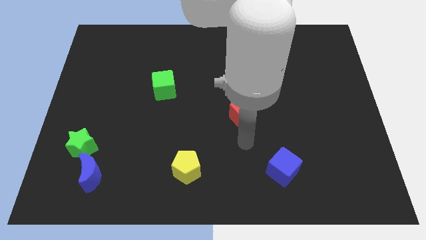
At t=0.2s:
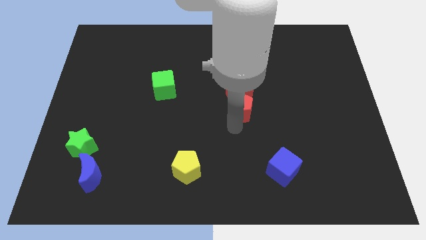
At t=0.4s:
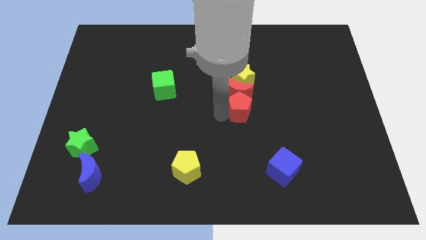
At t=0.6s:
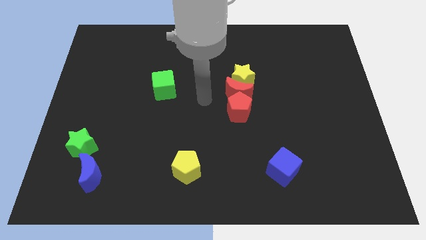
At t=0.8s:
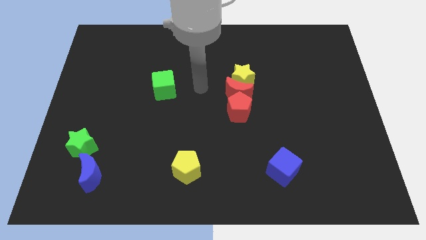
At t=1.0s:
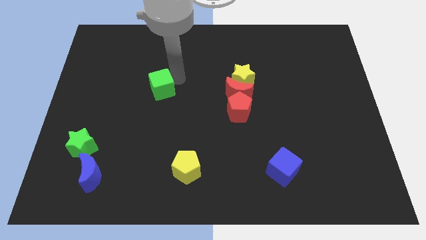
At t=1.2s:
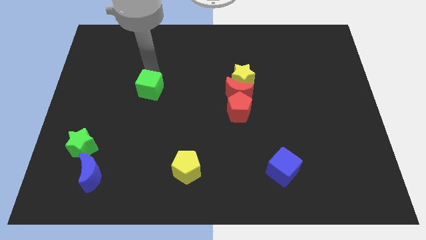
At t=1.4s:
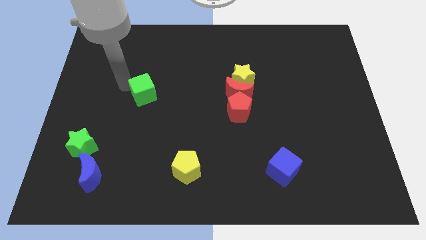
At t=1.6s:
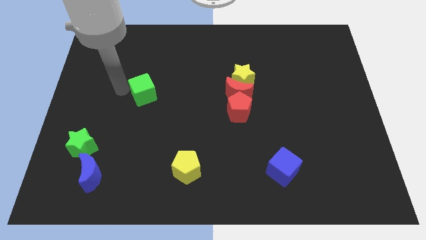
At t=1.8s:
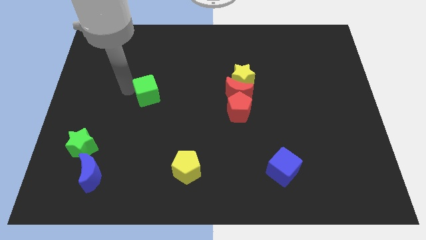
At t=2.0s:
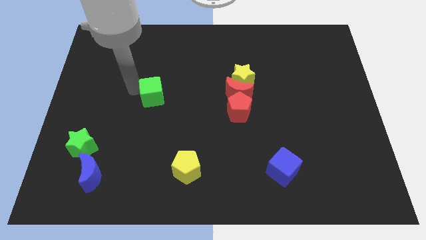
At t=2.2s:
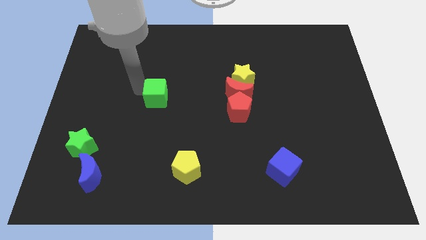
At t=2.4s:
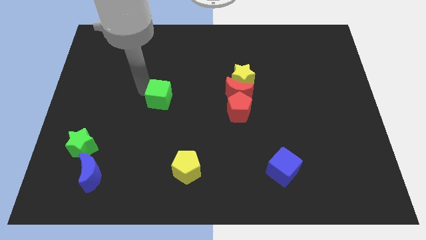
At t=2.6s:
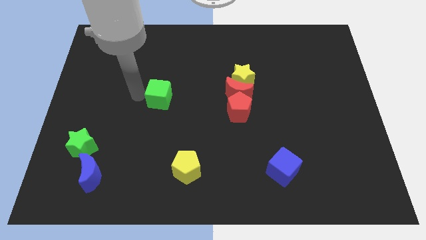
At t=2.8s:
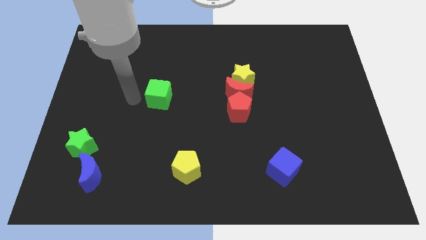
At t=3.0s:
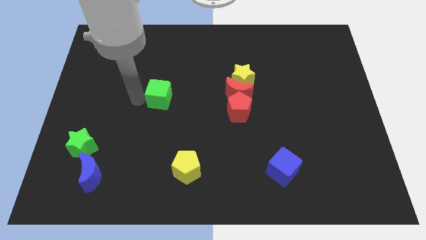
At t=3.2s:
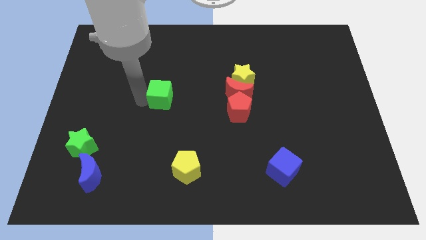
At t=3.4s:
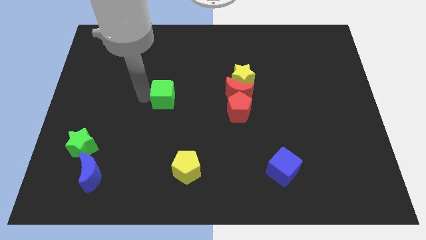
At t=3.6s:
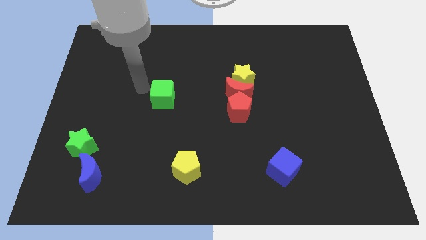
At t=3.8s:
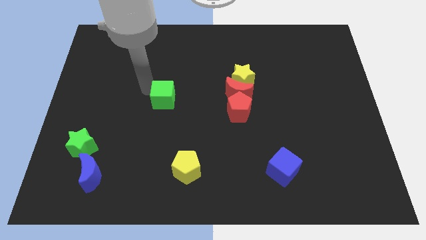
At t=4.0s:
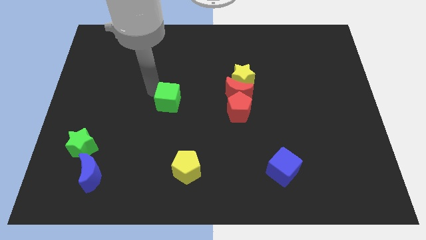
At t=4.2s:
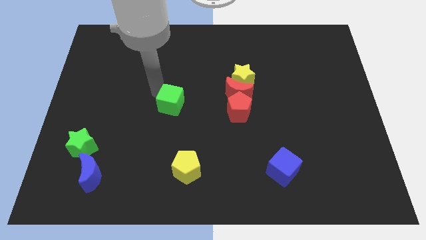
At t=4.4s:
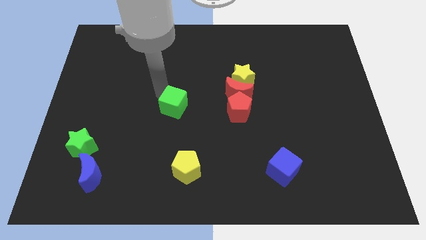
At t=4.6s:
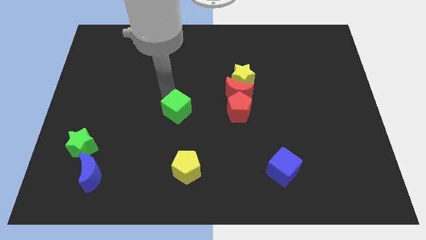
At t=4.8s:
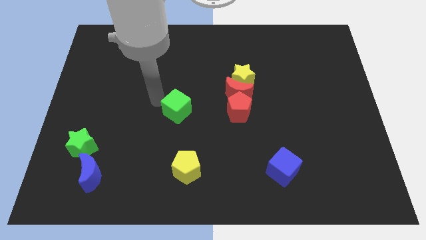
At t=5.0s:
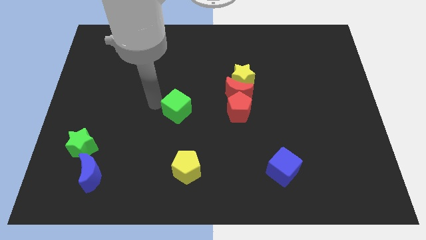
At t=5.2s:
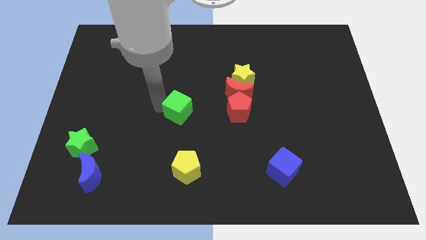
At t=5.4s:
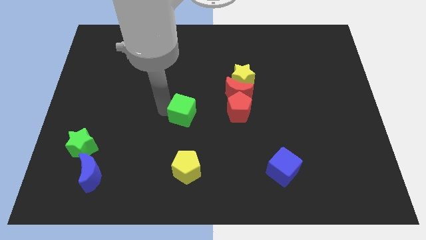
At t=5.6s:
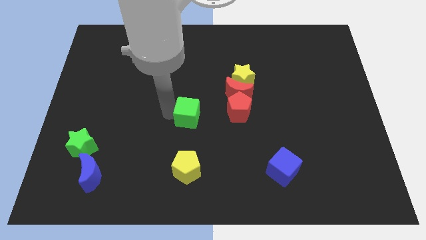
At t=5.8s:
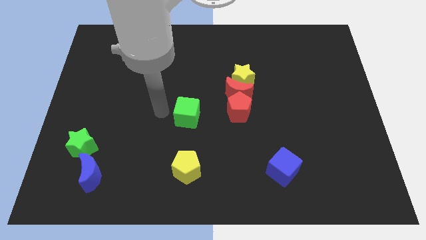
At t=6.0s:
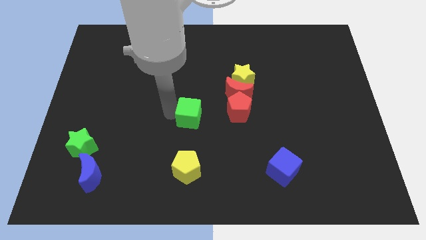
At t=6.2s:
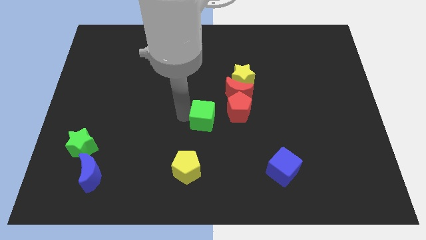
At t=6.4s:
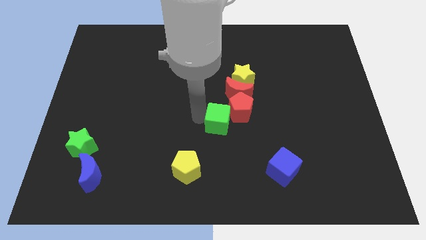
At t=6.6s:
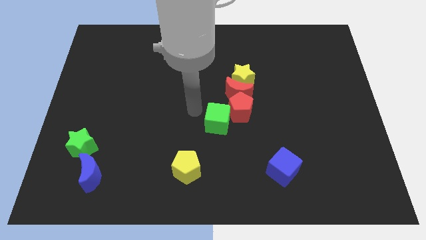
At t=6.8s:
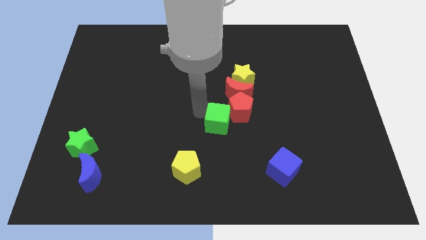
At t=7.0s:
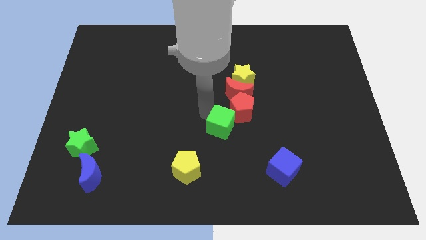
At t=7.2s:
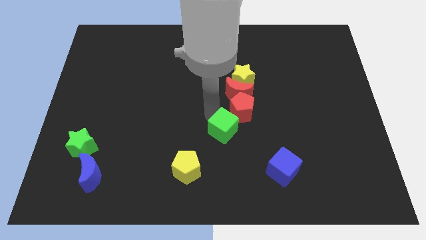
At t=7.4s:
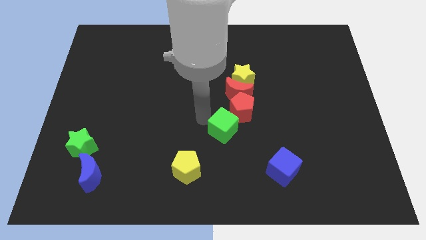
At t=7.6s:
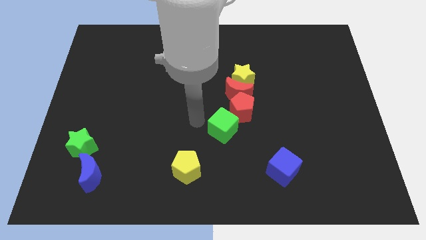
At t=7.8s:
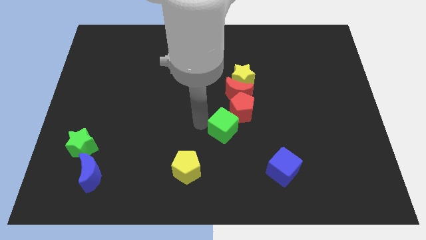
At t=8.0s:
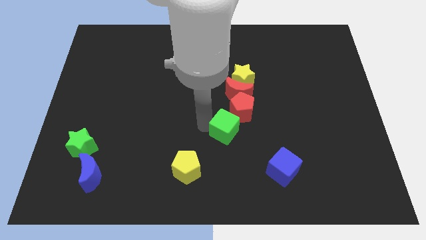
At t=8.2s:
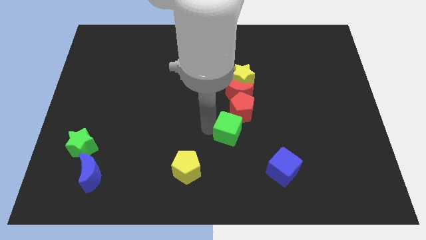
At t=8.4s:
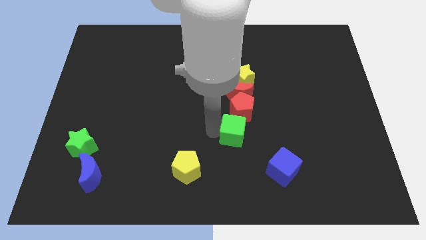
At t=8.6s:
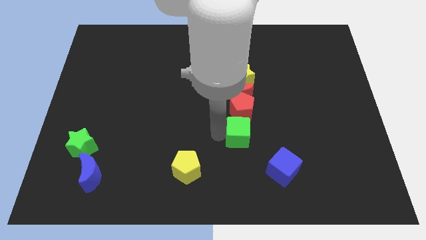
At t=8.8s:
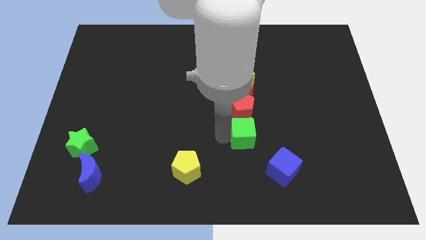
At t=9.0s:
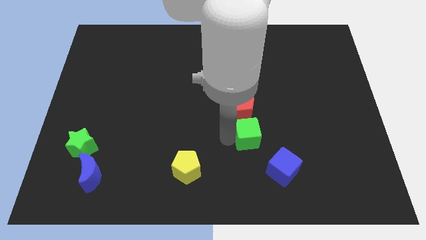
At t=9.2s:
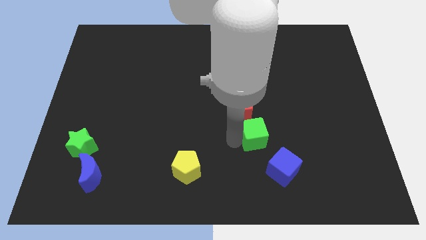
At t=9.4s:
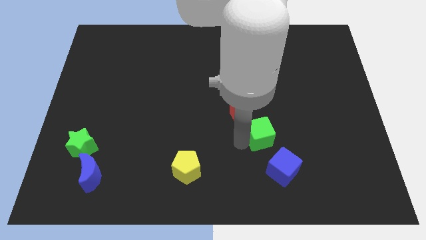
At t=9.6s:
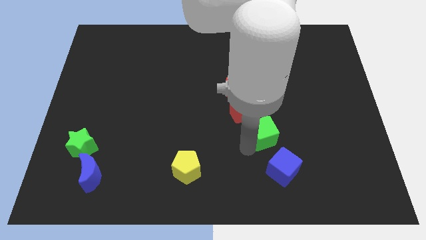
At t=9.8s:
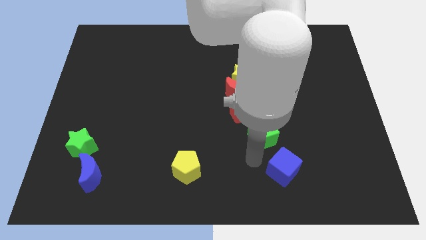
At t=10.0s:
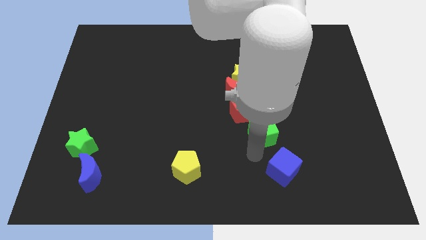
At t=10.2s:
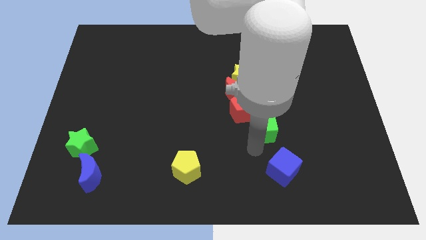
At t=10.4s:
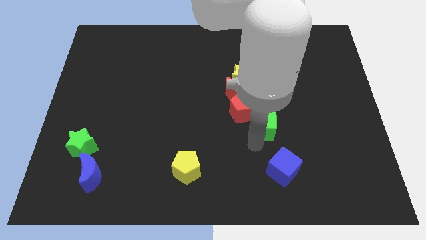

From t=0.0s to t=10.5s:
put the green cube just right of the red pentagon

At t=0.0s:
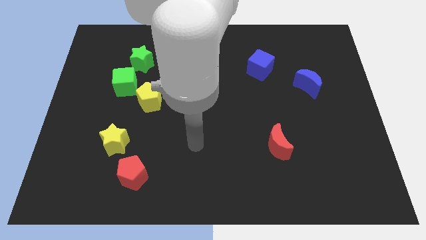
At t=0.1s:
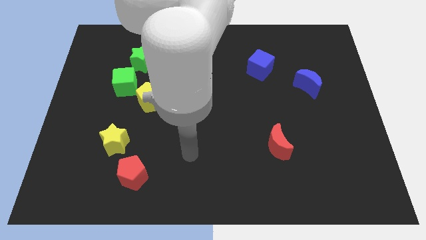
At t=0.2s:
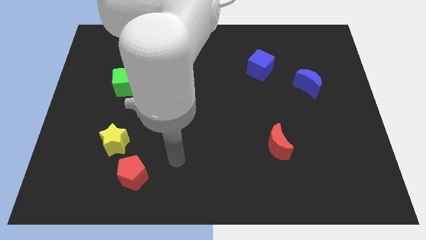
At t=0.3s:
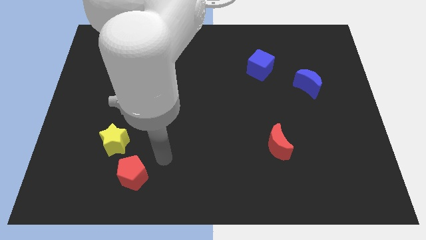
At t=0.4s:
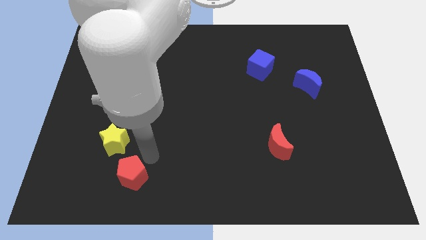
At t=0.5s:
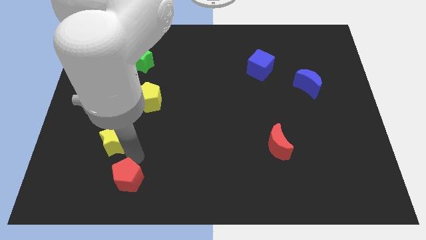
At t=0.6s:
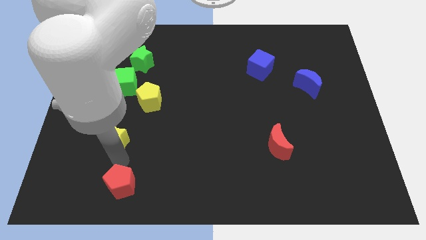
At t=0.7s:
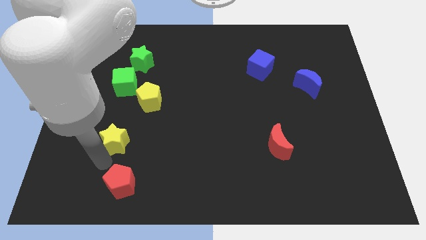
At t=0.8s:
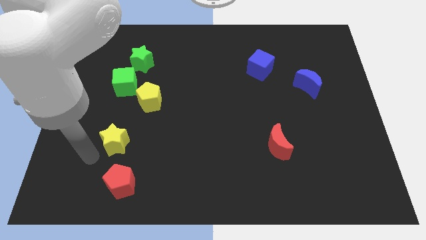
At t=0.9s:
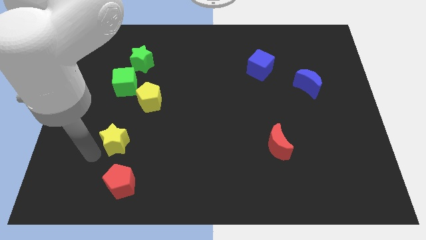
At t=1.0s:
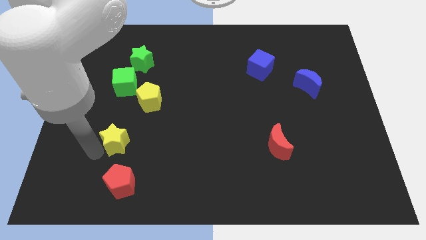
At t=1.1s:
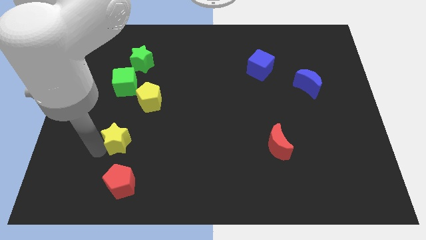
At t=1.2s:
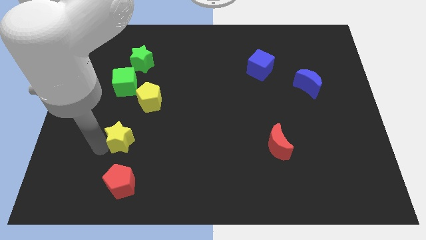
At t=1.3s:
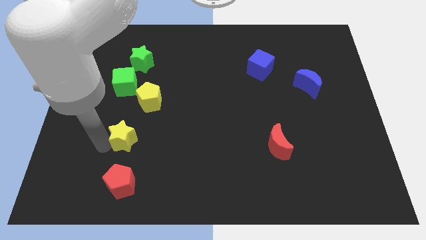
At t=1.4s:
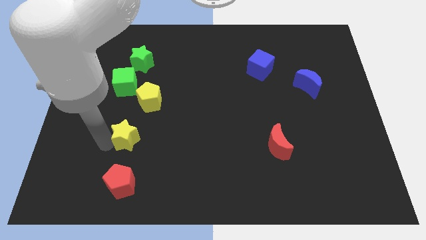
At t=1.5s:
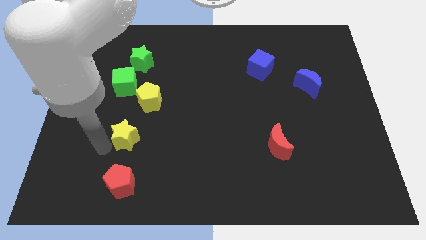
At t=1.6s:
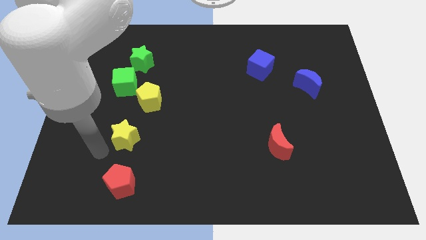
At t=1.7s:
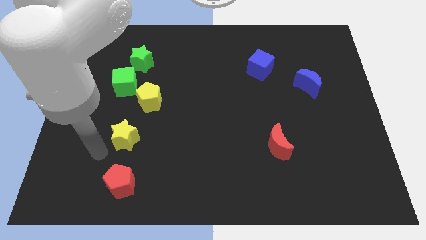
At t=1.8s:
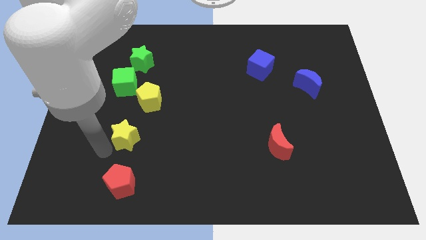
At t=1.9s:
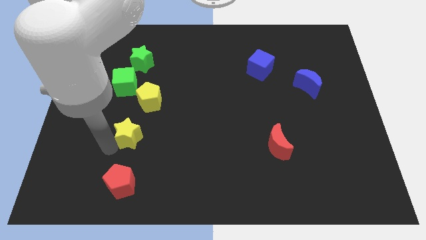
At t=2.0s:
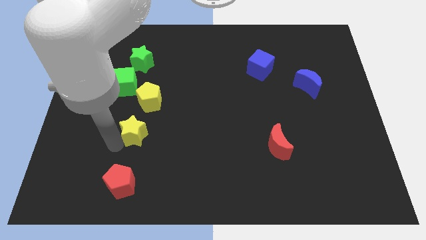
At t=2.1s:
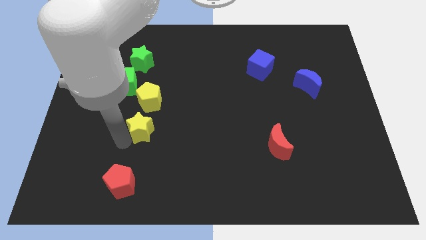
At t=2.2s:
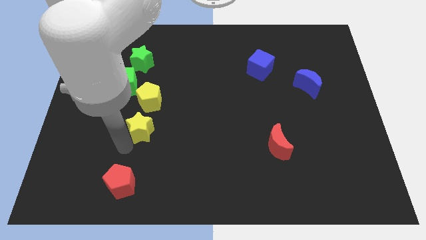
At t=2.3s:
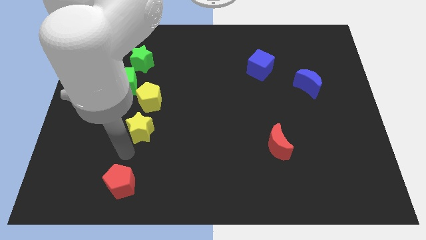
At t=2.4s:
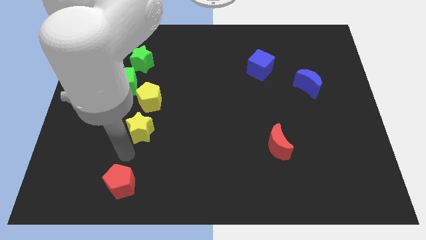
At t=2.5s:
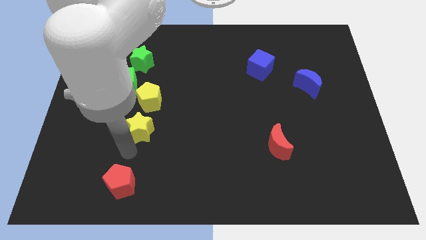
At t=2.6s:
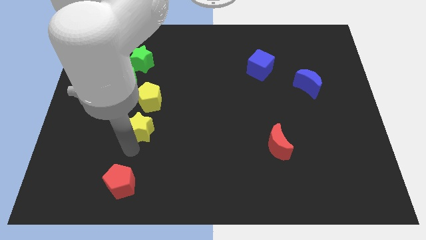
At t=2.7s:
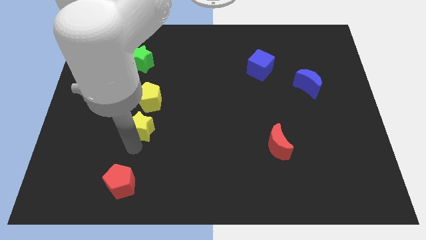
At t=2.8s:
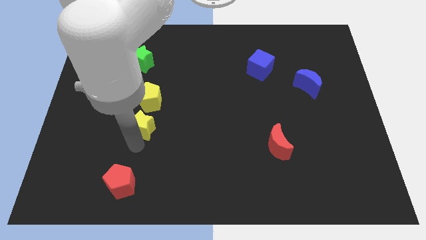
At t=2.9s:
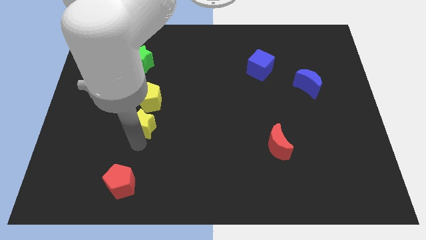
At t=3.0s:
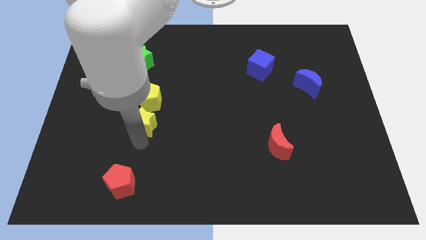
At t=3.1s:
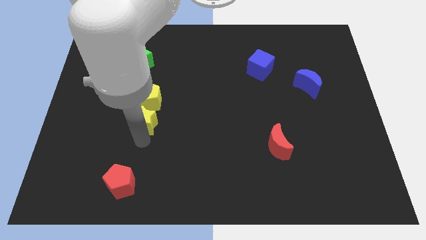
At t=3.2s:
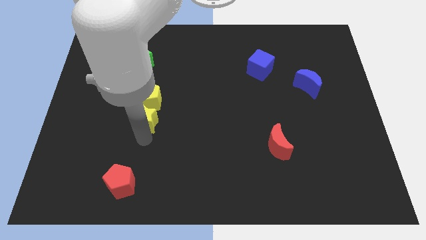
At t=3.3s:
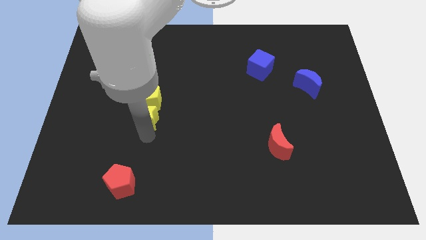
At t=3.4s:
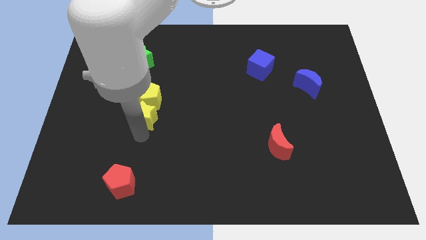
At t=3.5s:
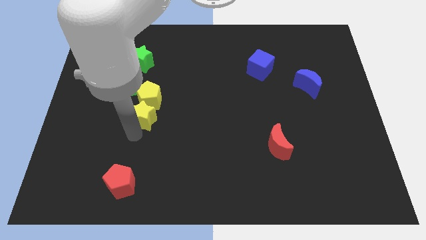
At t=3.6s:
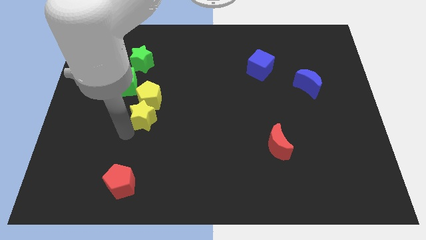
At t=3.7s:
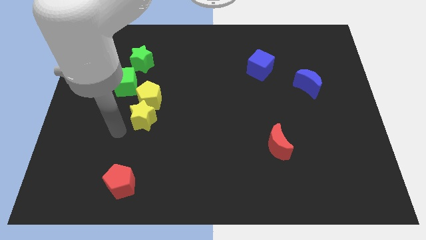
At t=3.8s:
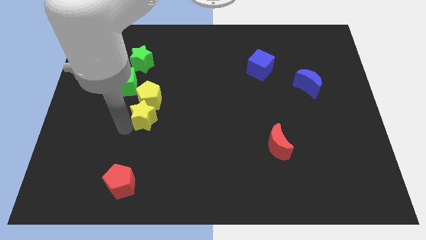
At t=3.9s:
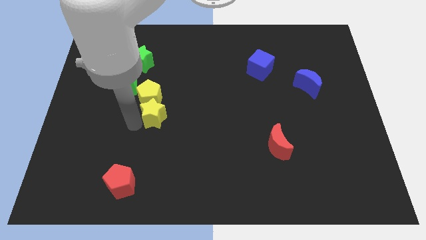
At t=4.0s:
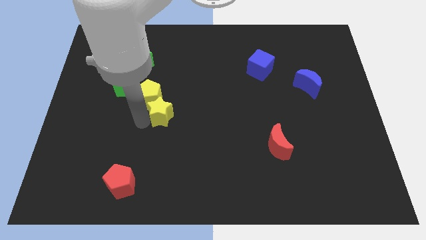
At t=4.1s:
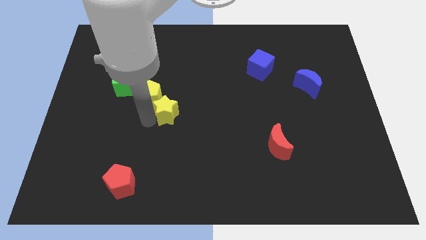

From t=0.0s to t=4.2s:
put the yellow star to the right of the yellow pentagon
